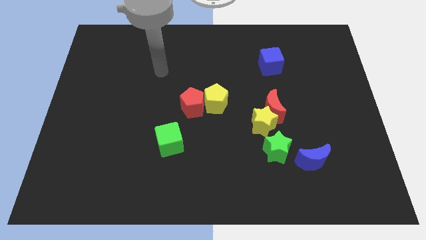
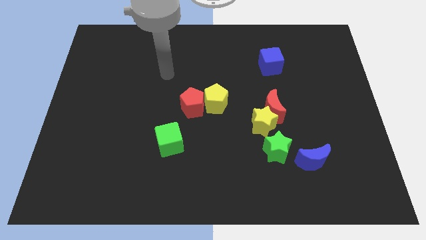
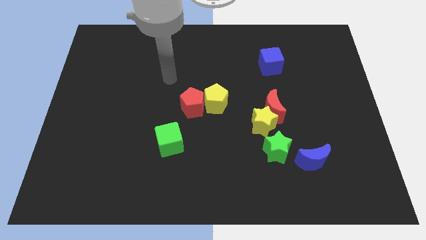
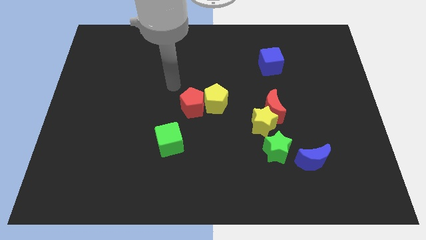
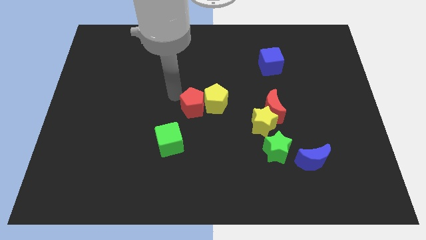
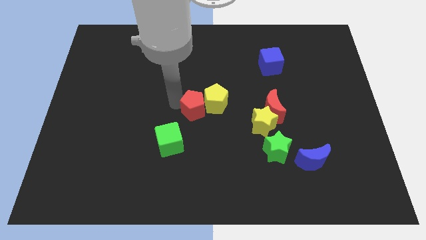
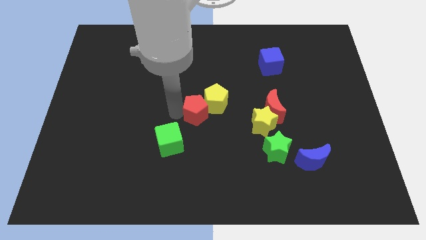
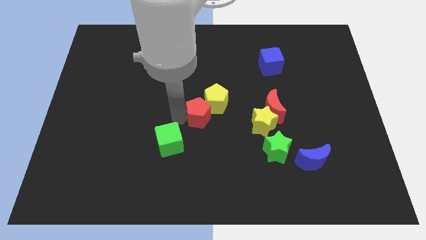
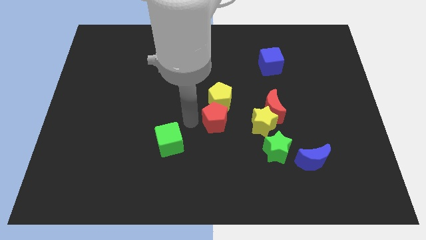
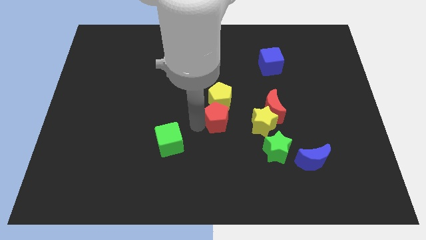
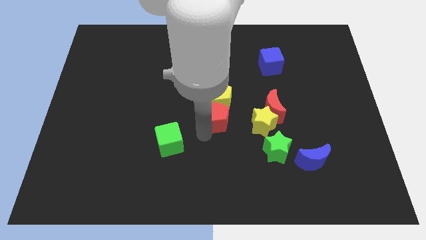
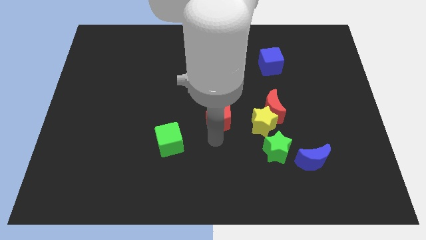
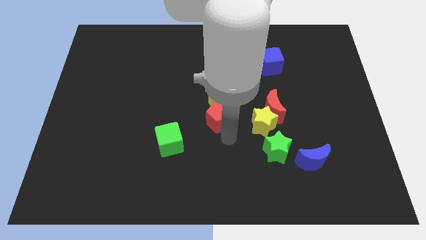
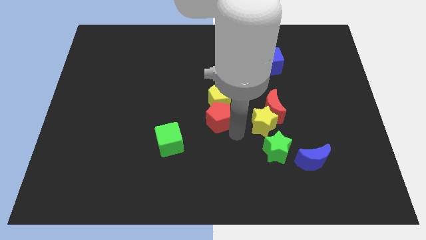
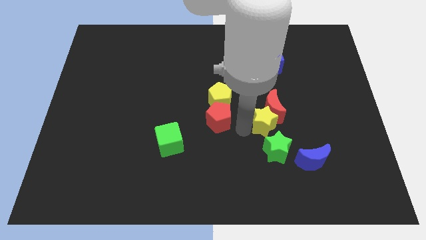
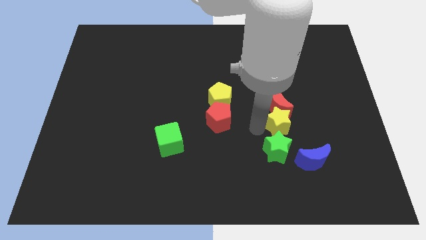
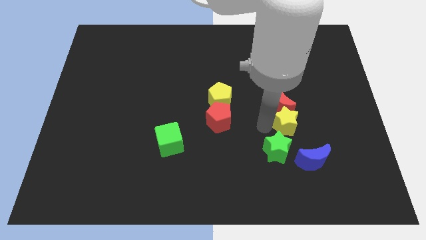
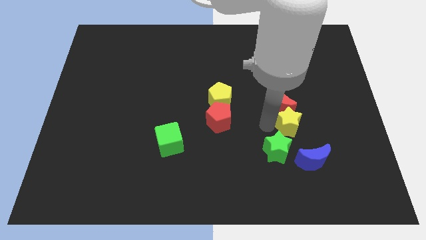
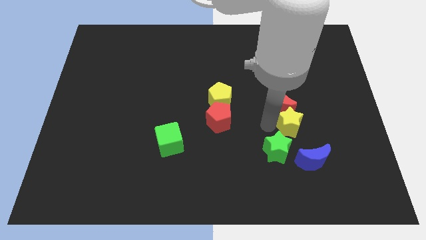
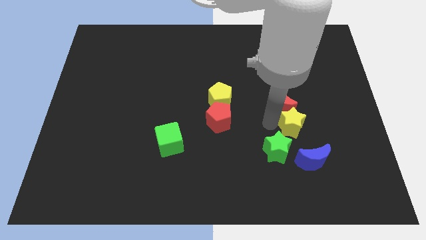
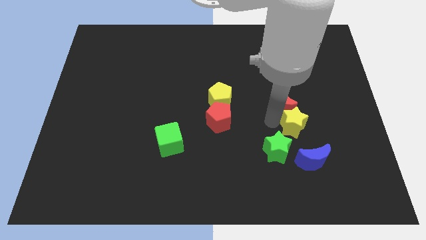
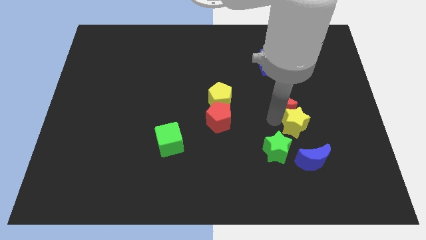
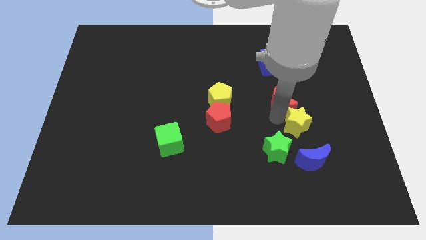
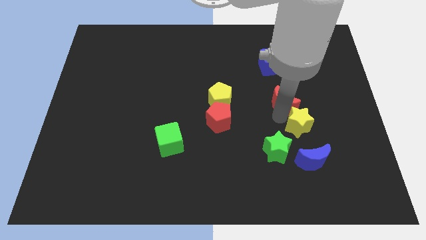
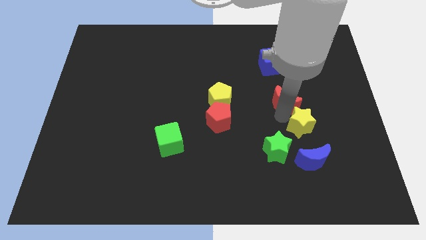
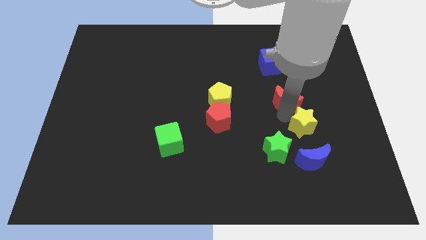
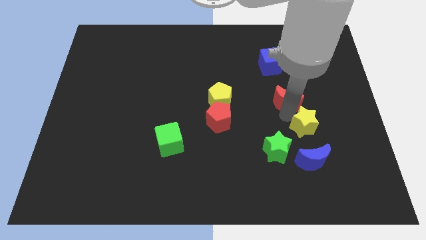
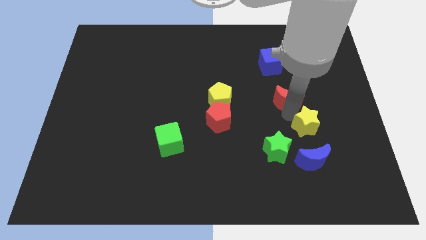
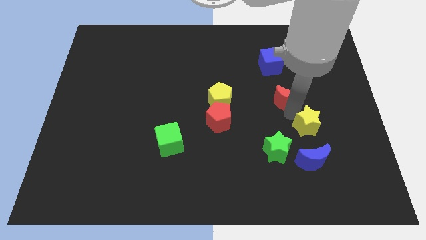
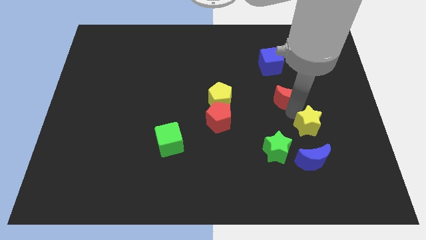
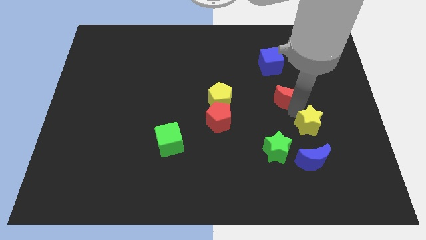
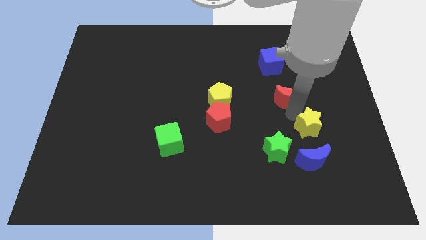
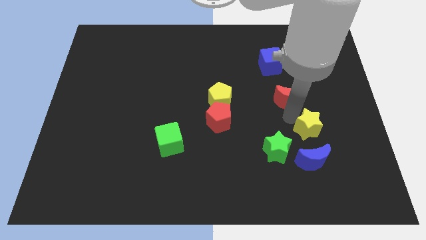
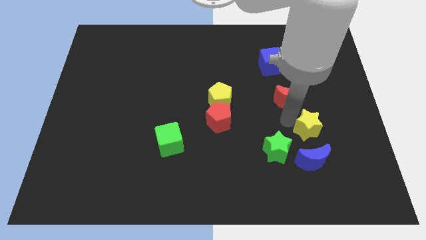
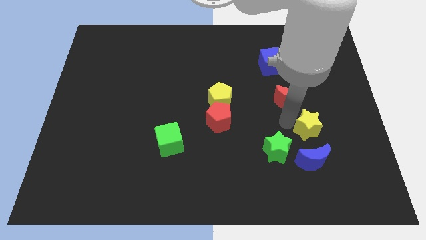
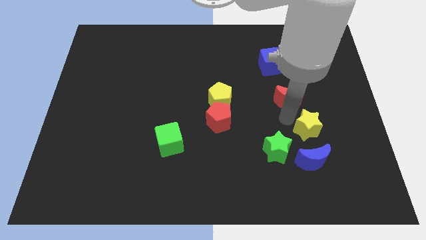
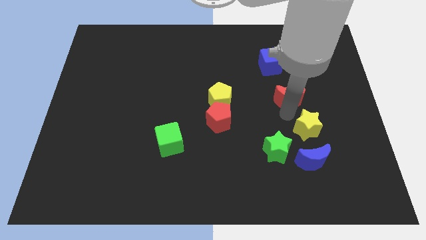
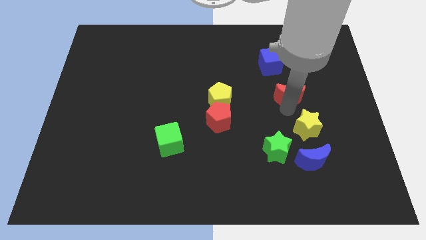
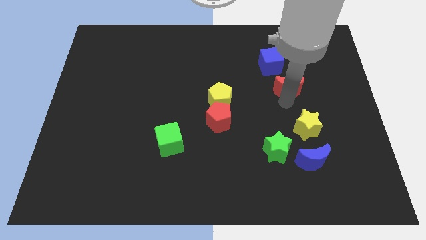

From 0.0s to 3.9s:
slightly push the red moon upwards and right

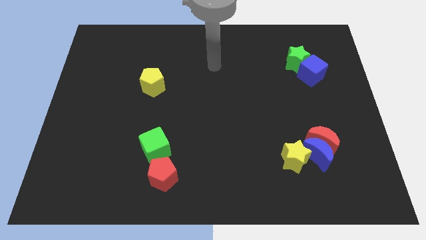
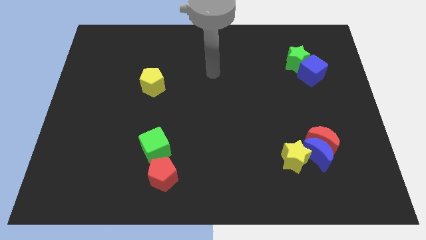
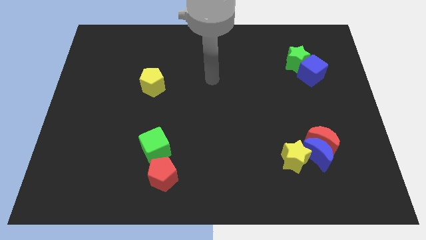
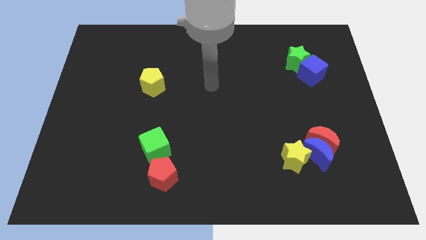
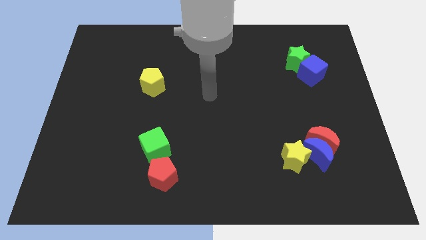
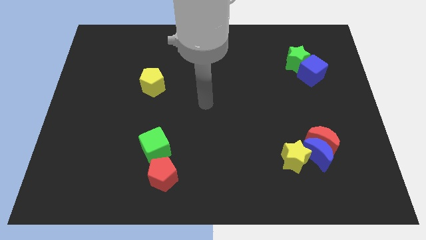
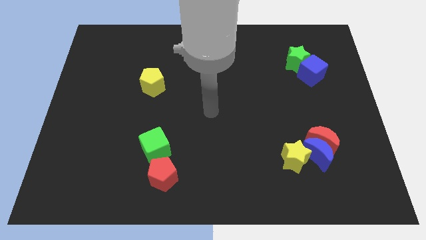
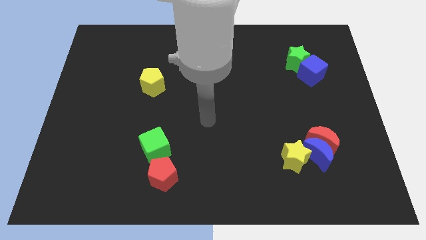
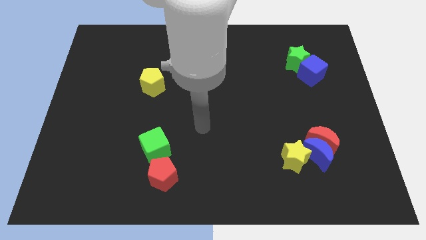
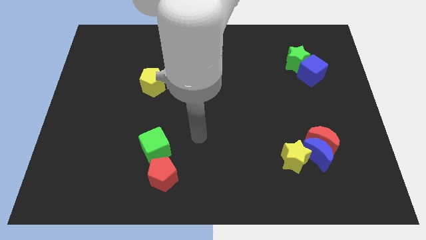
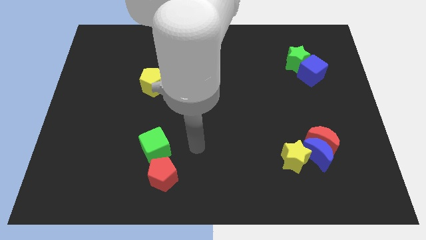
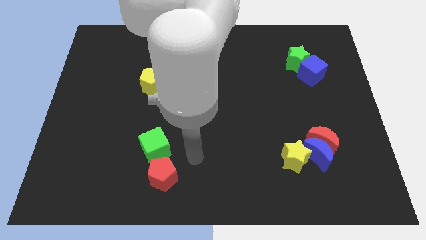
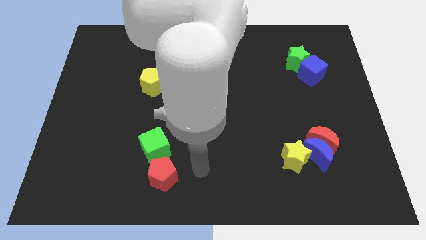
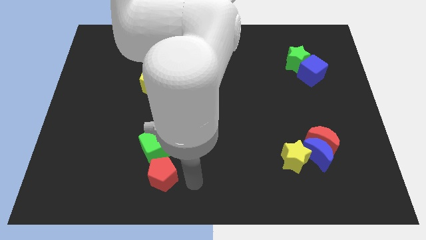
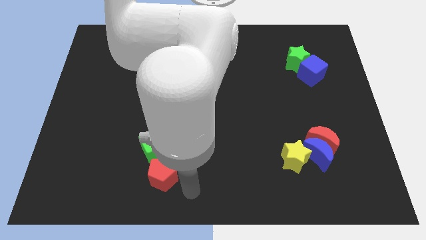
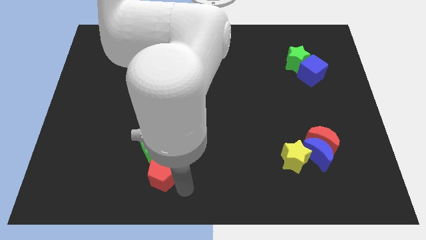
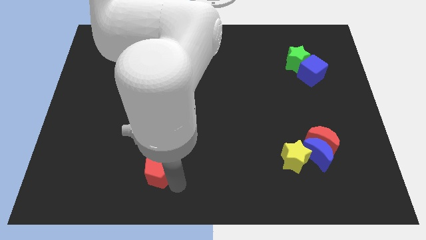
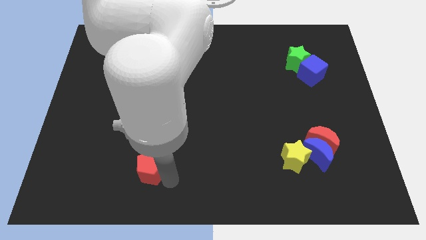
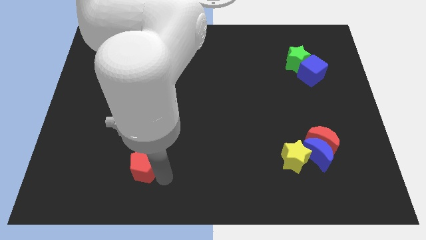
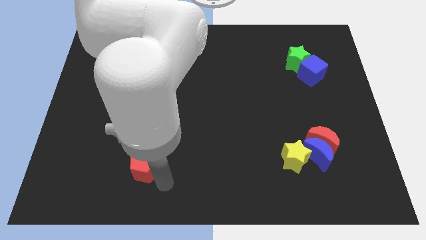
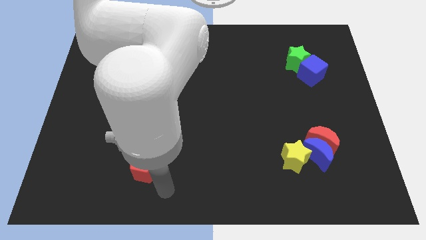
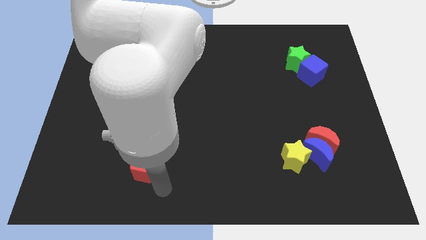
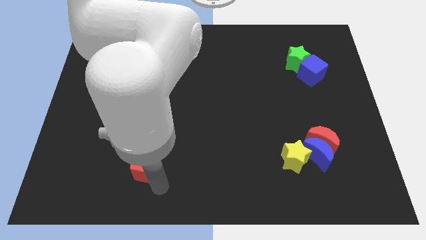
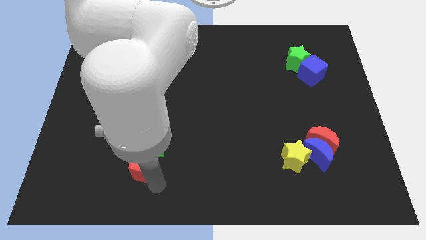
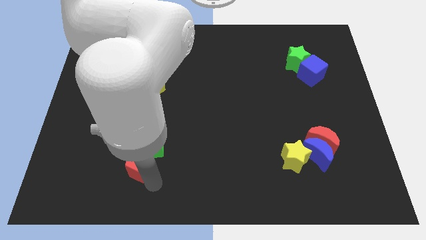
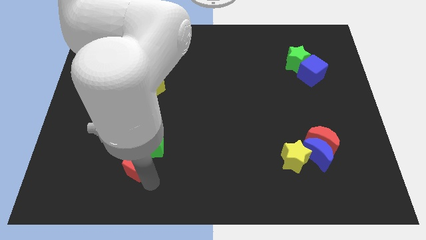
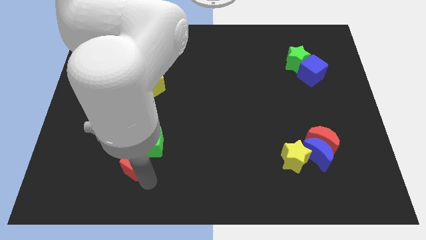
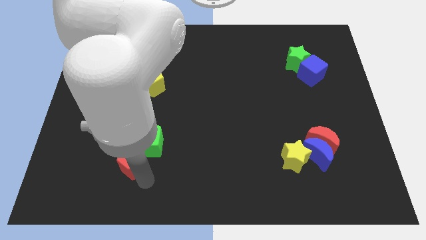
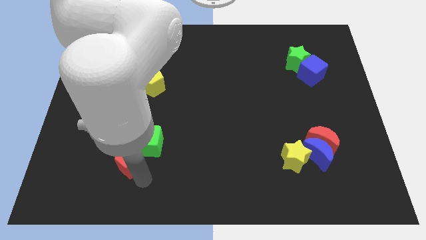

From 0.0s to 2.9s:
slightly slide the red pentagon upwards and then left

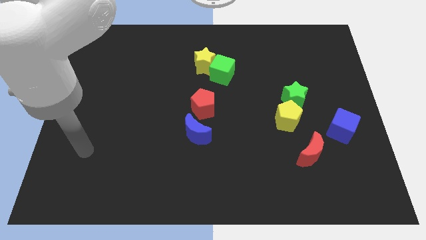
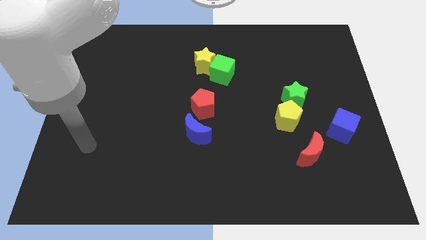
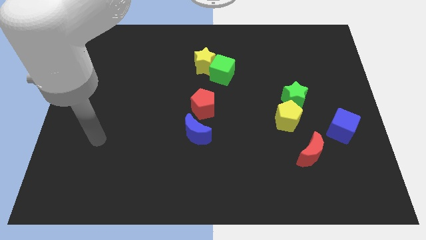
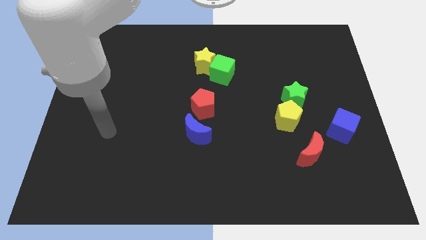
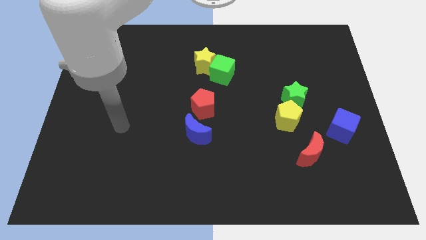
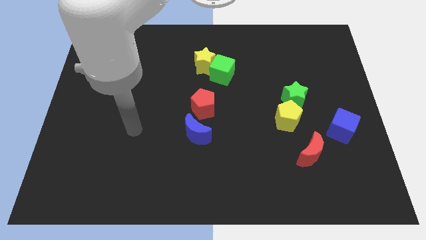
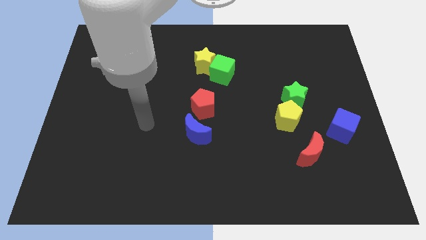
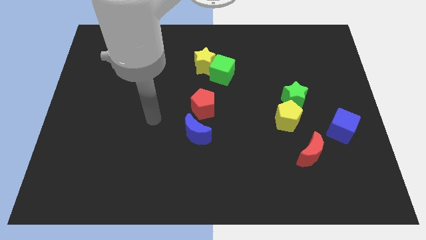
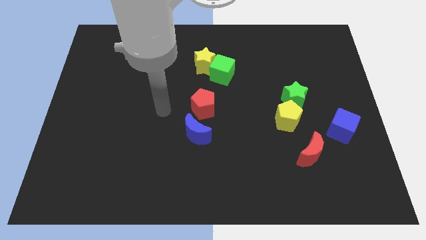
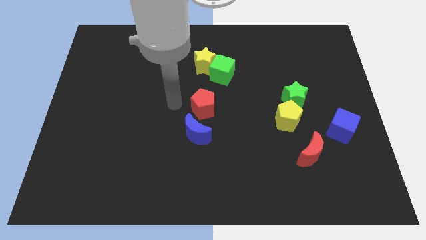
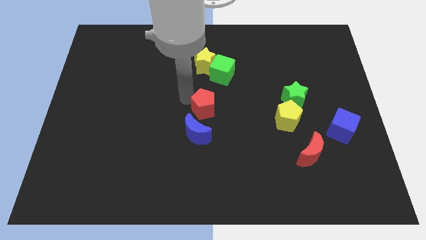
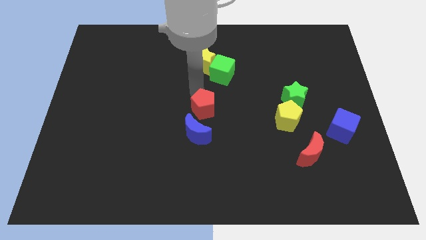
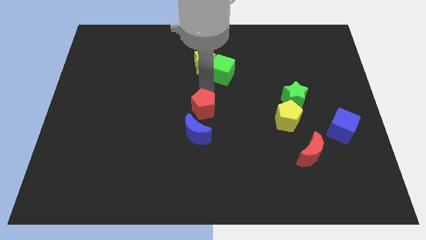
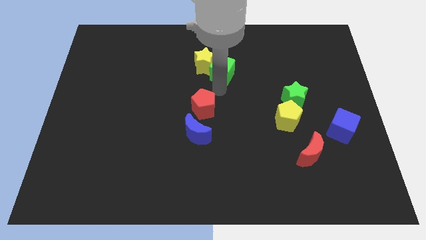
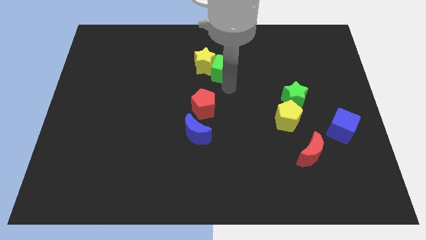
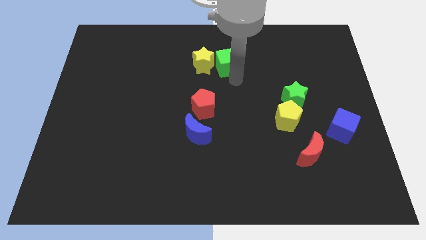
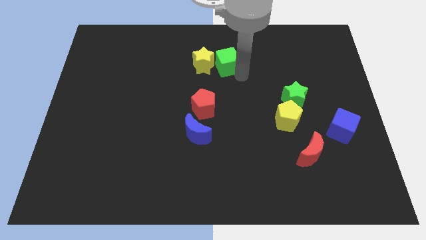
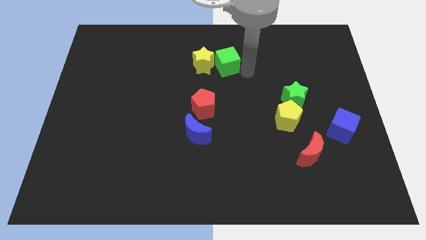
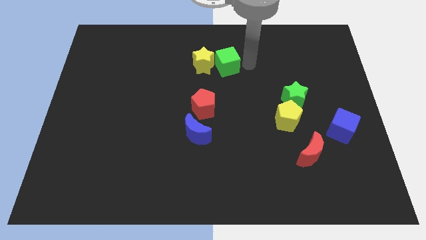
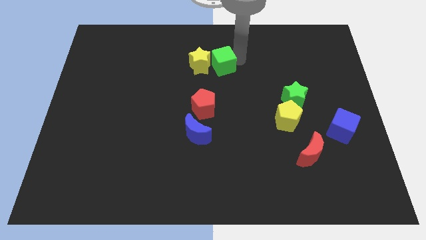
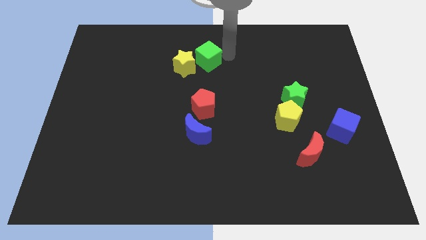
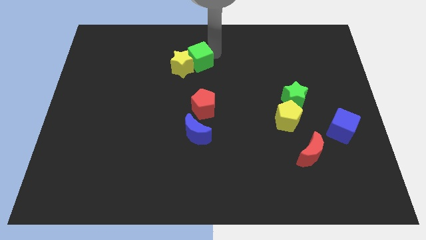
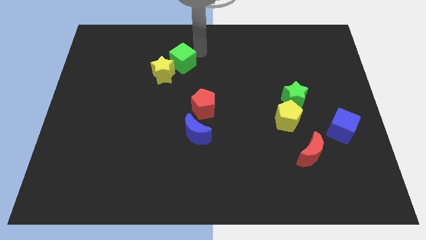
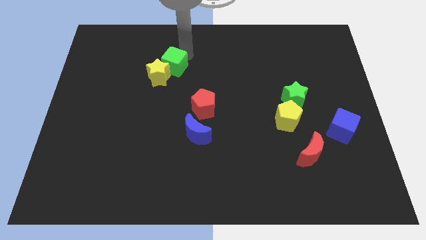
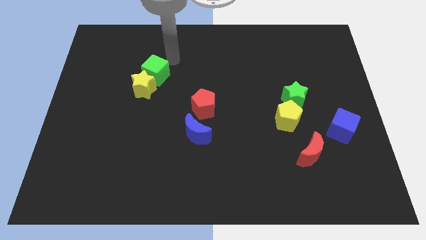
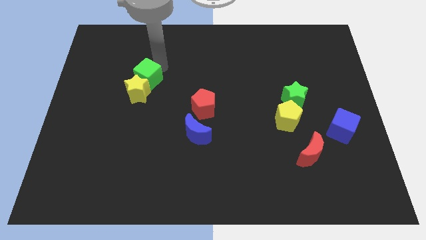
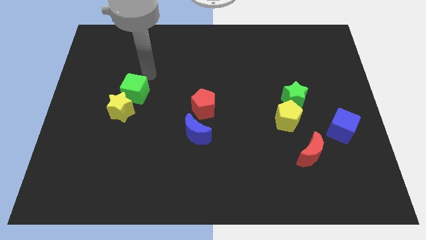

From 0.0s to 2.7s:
slide the yellow star diagonally downwards and left
